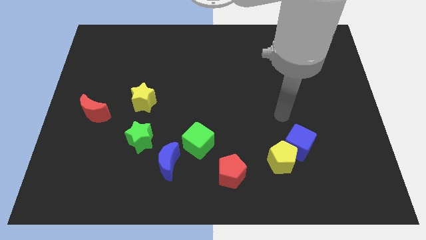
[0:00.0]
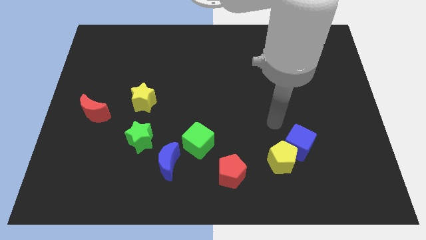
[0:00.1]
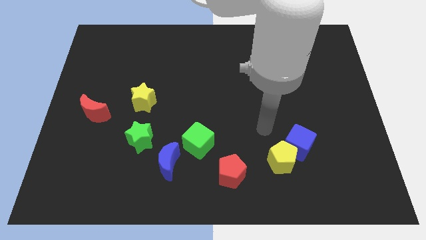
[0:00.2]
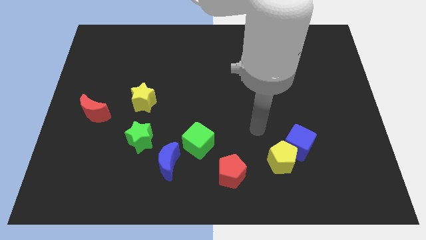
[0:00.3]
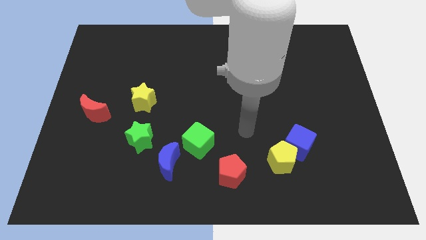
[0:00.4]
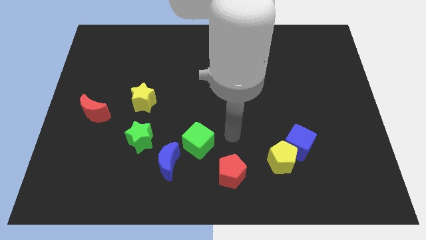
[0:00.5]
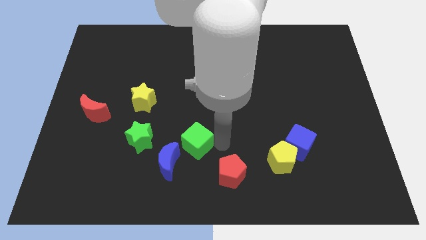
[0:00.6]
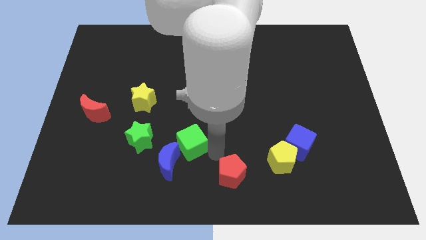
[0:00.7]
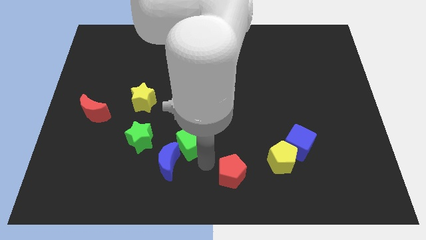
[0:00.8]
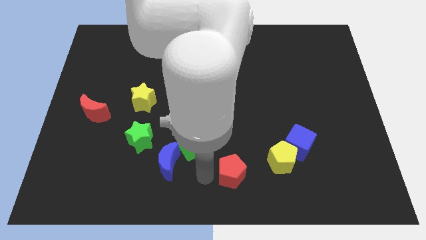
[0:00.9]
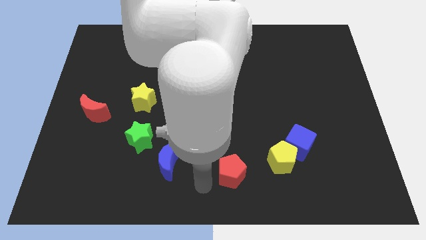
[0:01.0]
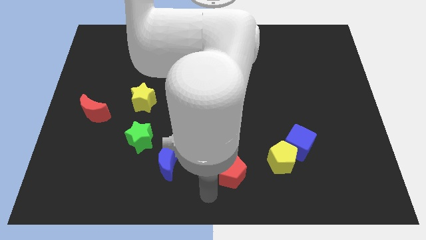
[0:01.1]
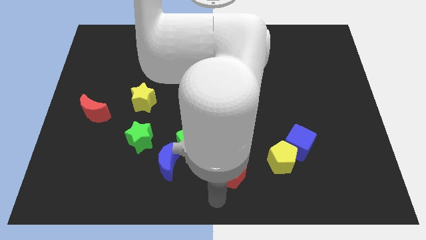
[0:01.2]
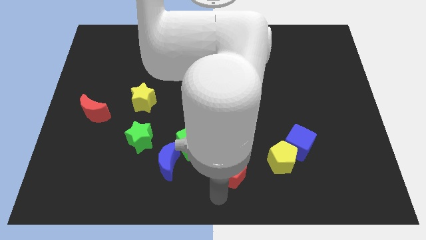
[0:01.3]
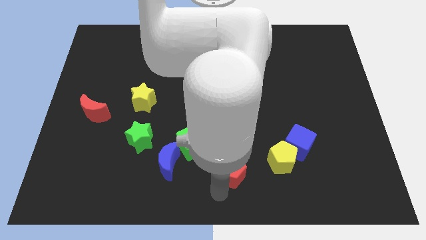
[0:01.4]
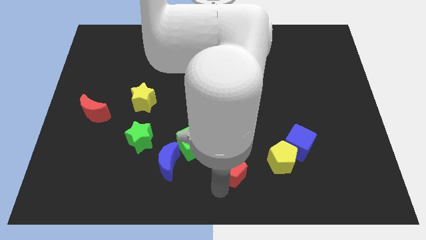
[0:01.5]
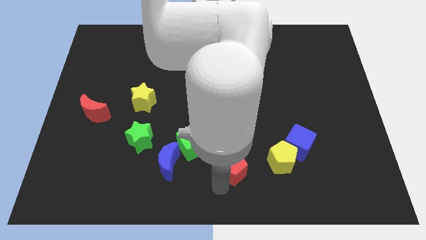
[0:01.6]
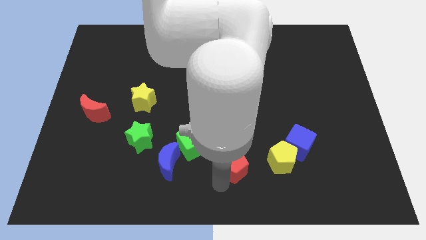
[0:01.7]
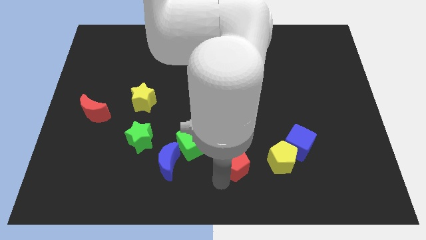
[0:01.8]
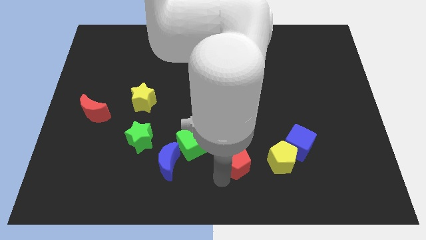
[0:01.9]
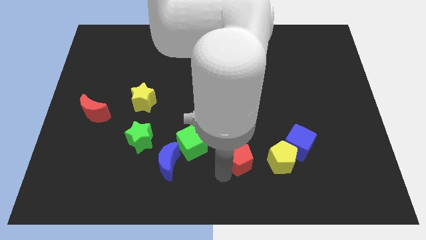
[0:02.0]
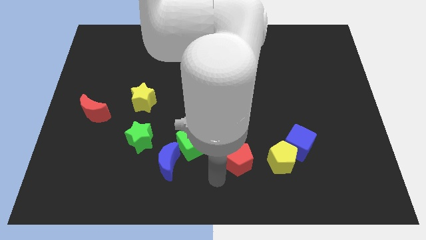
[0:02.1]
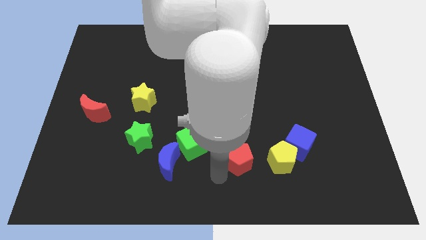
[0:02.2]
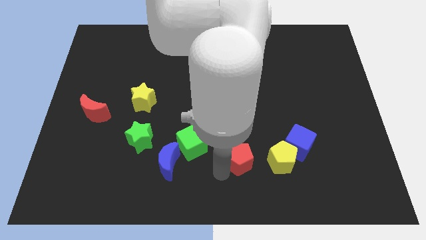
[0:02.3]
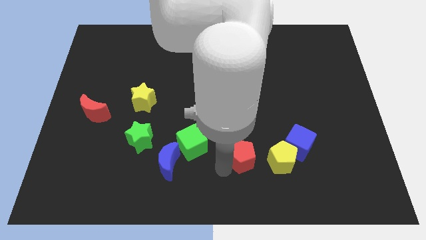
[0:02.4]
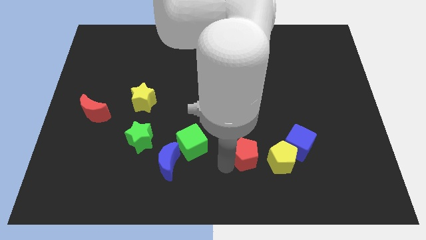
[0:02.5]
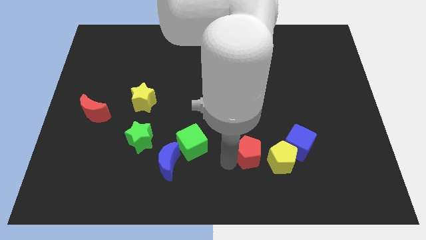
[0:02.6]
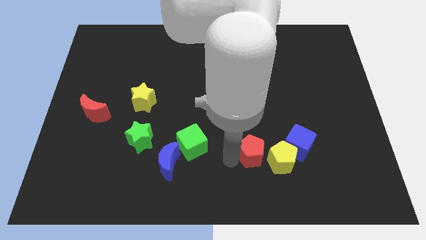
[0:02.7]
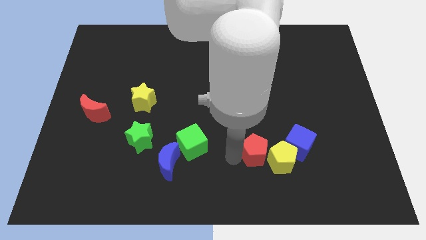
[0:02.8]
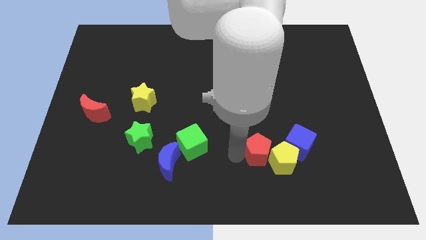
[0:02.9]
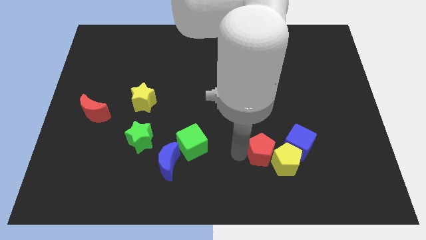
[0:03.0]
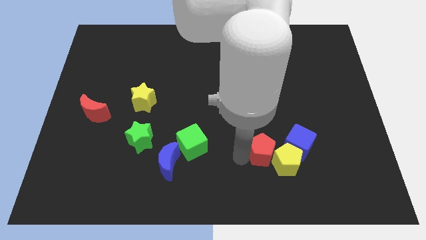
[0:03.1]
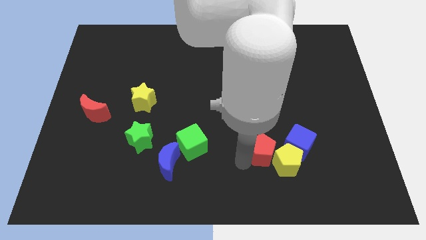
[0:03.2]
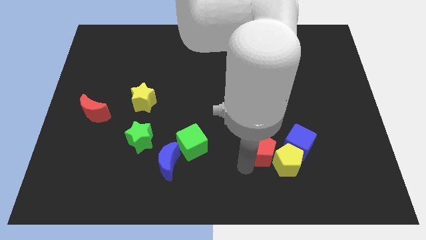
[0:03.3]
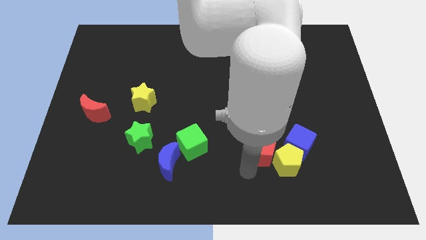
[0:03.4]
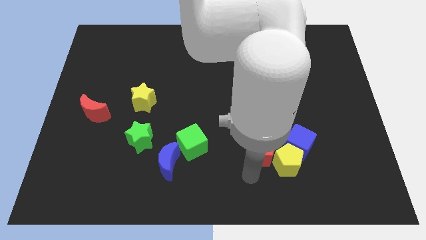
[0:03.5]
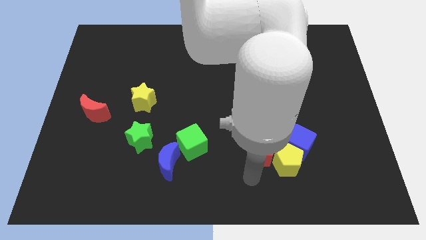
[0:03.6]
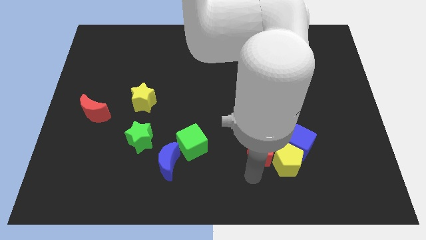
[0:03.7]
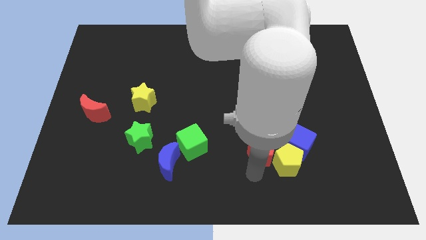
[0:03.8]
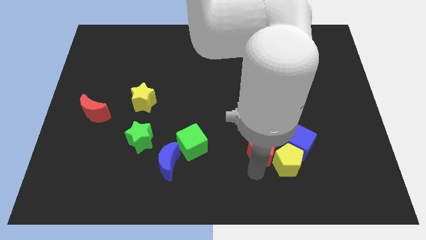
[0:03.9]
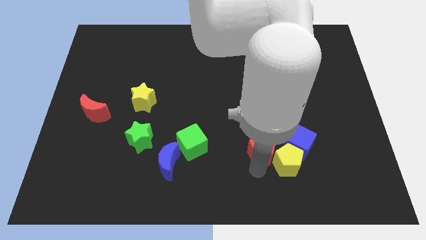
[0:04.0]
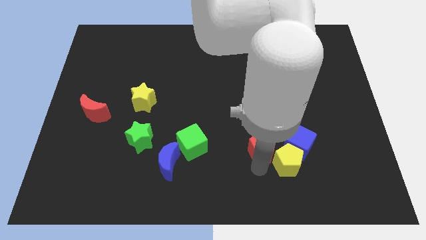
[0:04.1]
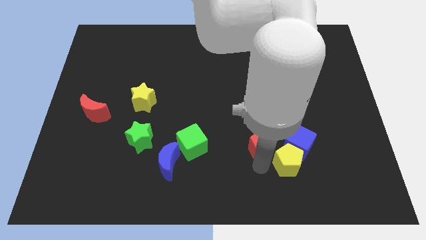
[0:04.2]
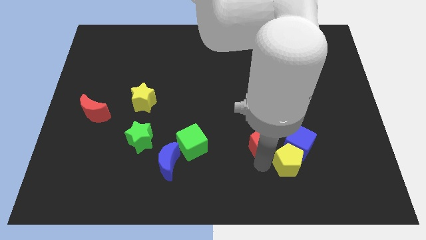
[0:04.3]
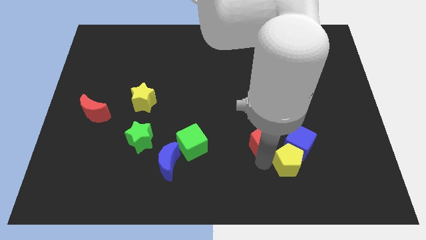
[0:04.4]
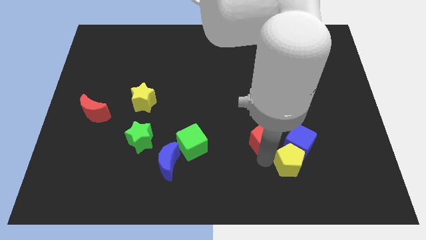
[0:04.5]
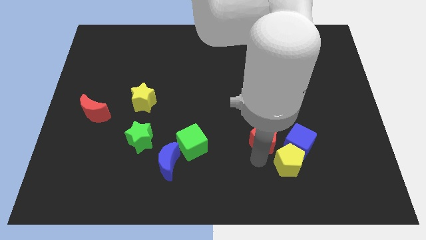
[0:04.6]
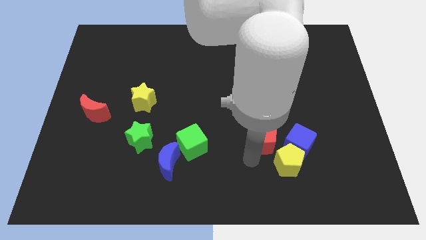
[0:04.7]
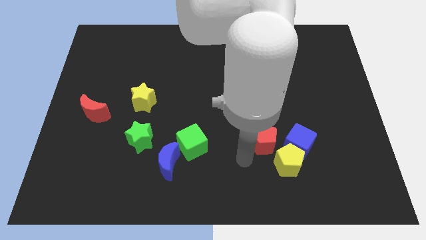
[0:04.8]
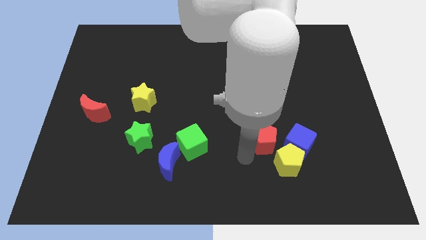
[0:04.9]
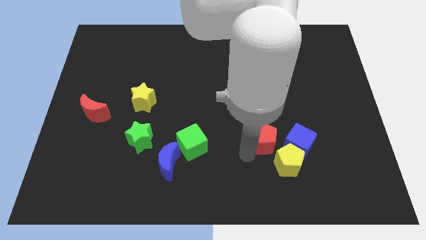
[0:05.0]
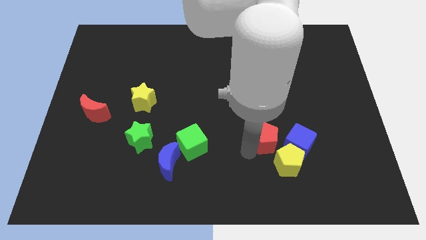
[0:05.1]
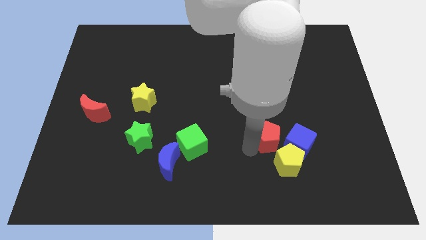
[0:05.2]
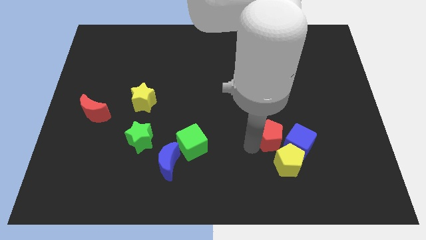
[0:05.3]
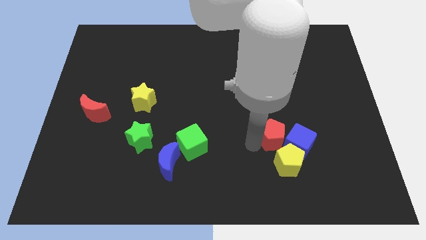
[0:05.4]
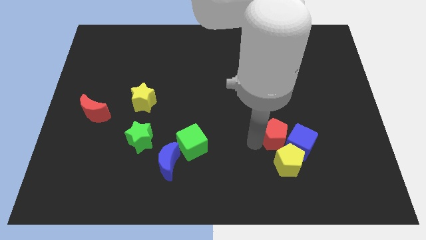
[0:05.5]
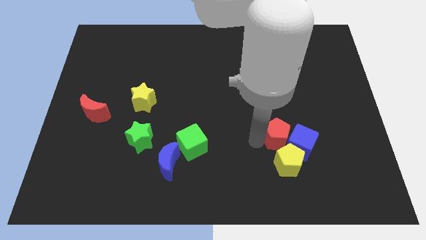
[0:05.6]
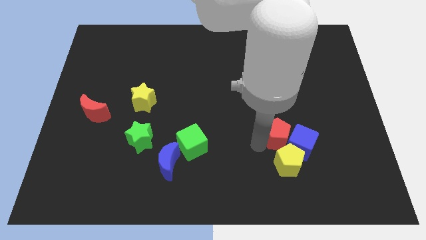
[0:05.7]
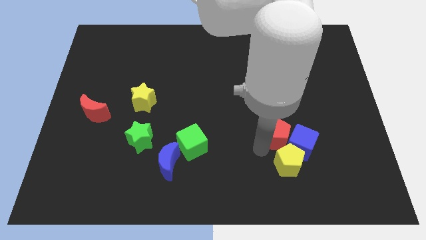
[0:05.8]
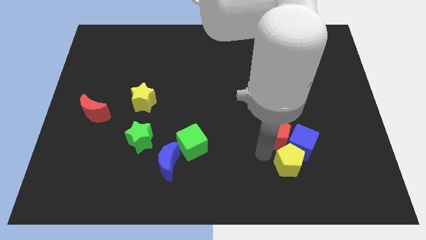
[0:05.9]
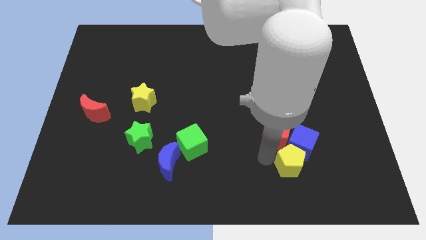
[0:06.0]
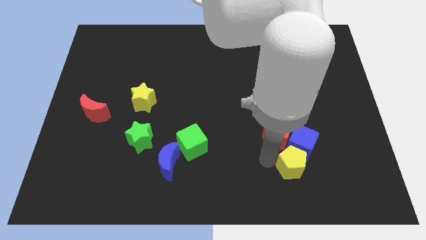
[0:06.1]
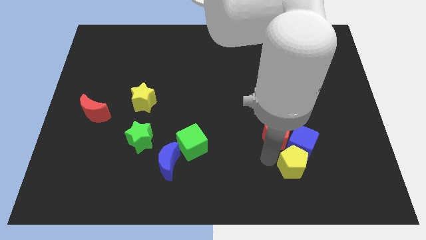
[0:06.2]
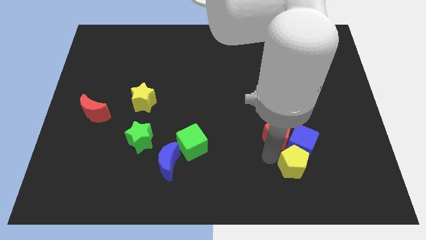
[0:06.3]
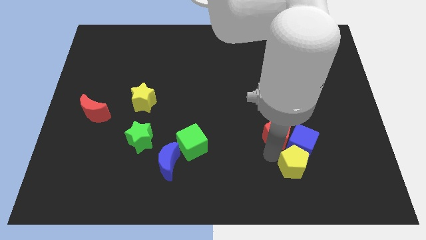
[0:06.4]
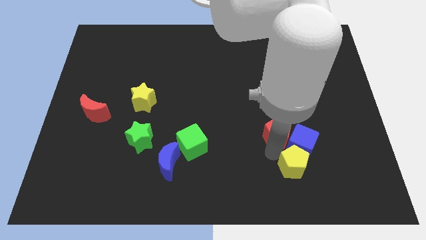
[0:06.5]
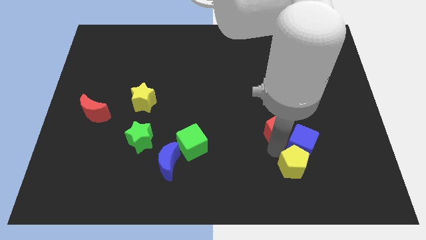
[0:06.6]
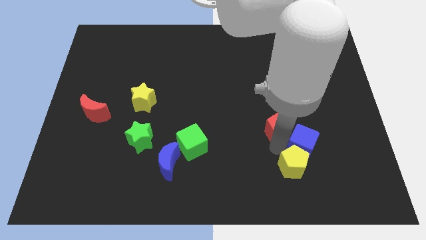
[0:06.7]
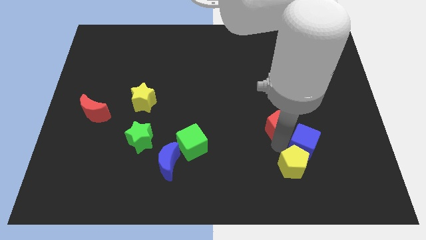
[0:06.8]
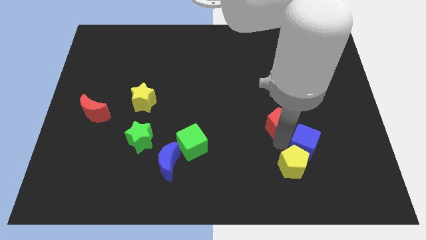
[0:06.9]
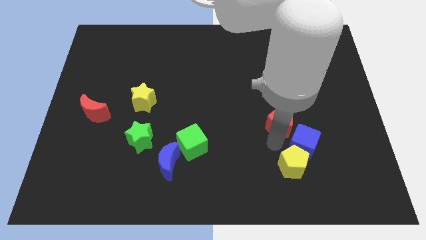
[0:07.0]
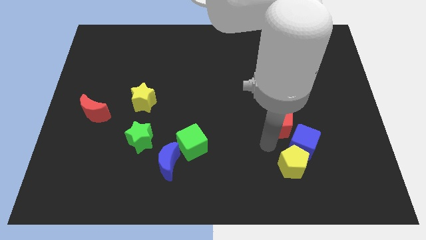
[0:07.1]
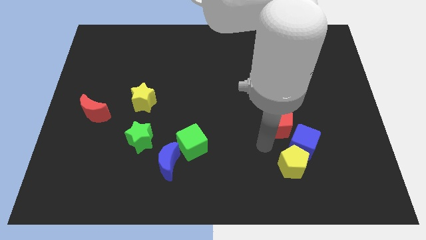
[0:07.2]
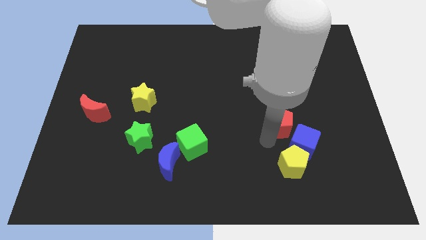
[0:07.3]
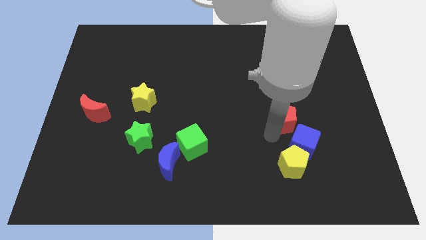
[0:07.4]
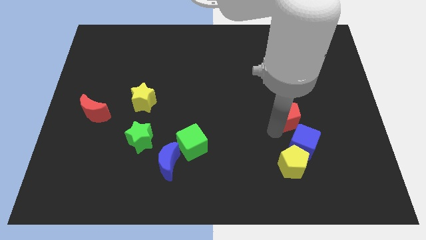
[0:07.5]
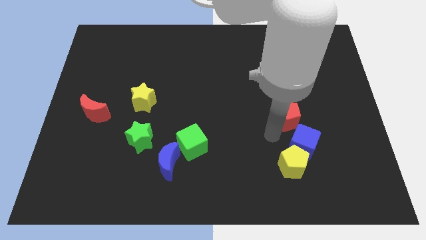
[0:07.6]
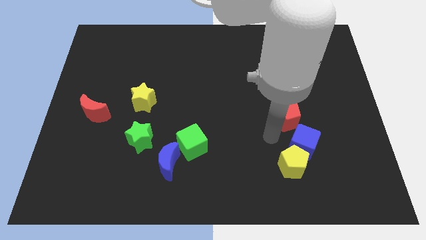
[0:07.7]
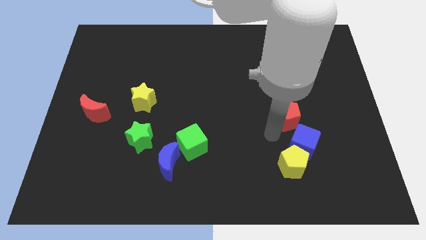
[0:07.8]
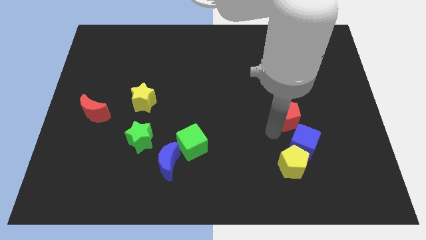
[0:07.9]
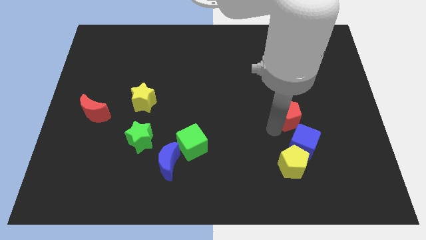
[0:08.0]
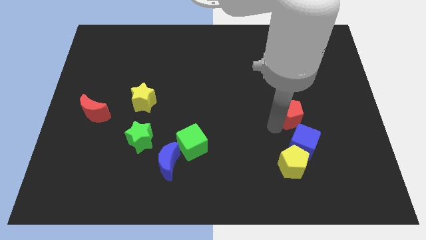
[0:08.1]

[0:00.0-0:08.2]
push the red pentagon upwards and then right

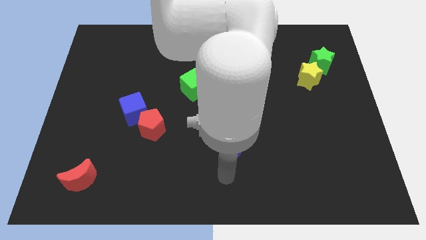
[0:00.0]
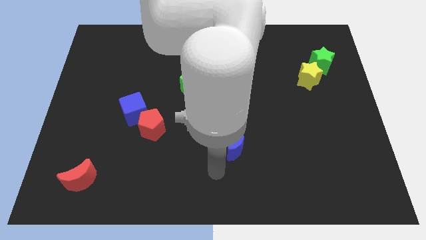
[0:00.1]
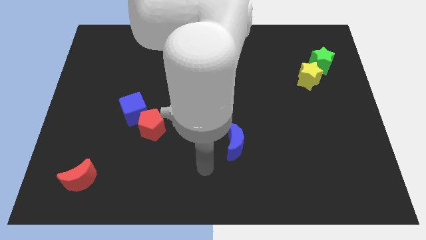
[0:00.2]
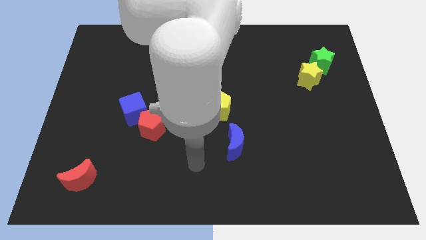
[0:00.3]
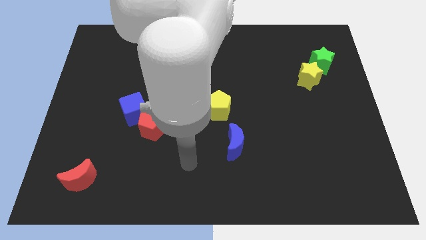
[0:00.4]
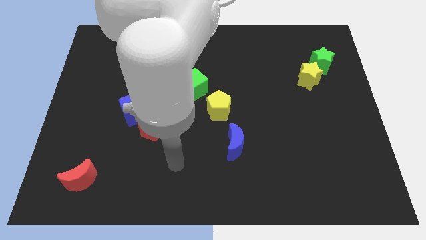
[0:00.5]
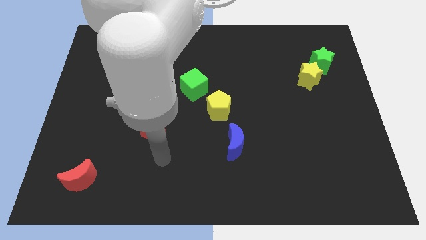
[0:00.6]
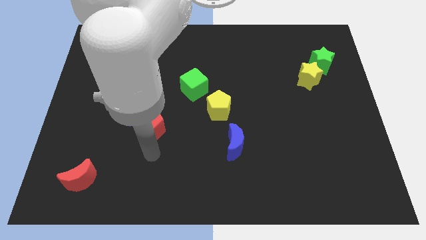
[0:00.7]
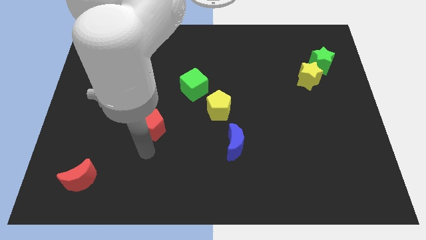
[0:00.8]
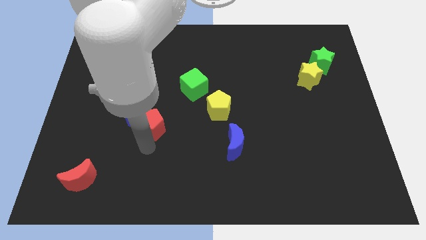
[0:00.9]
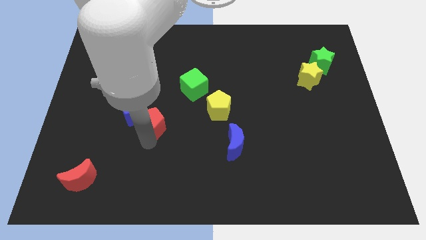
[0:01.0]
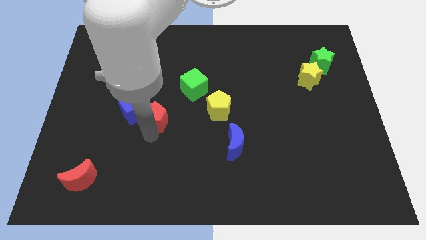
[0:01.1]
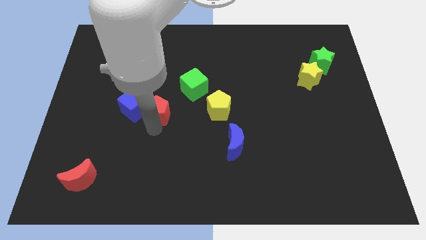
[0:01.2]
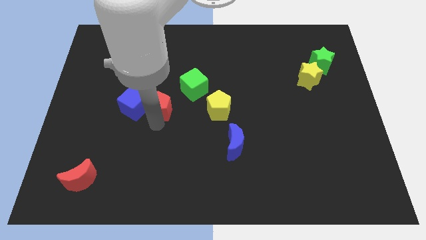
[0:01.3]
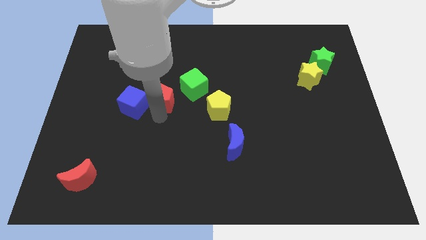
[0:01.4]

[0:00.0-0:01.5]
push the red pentagon a little up
